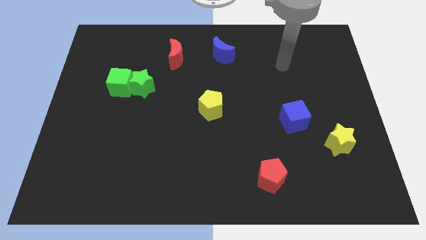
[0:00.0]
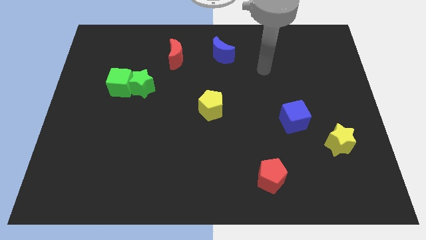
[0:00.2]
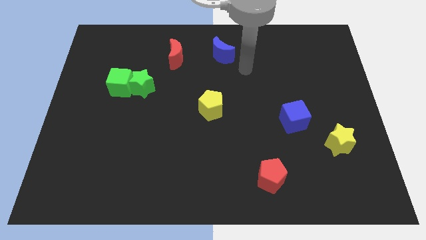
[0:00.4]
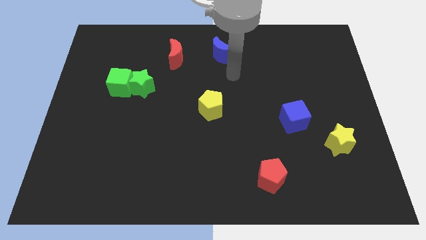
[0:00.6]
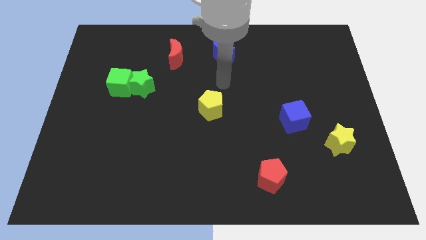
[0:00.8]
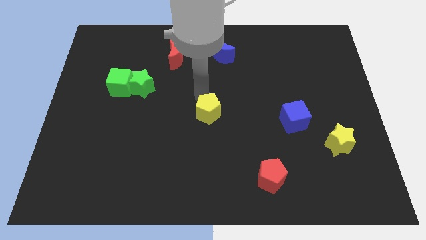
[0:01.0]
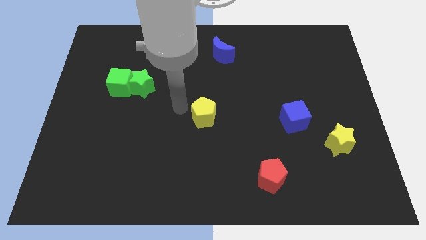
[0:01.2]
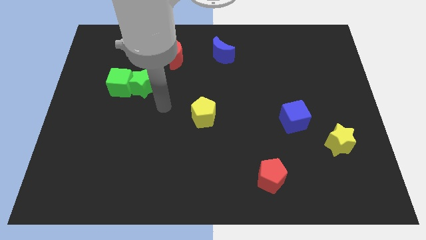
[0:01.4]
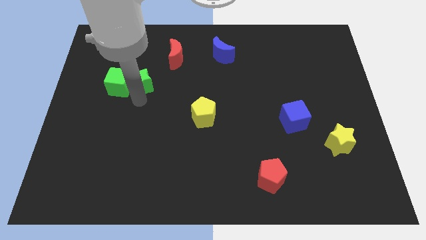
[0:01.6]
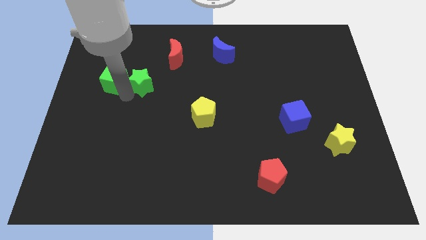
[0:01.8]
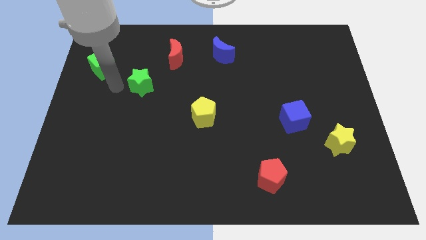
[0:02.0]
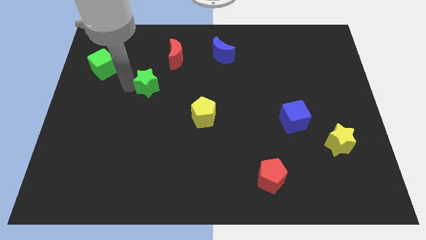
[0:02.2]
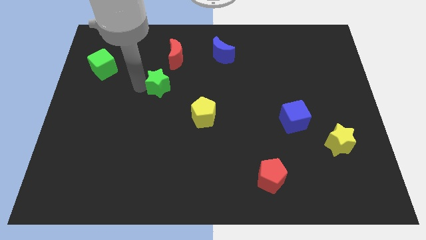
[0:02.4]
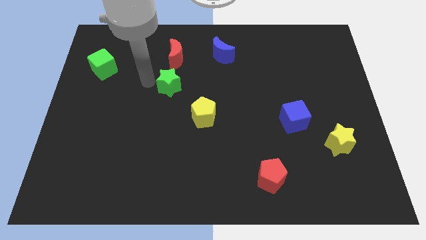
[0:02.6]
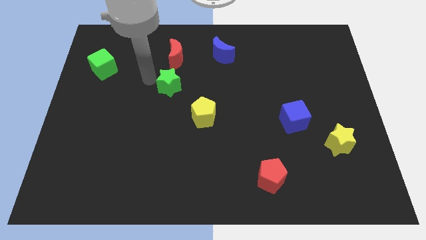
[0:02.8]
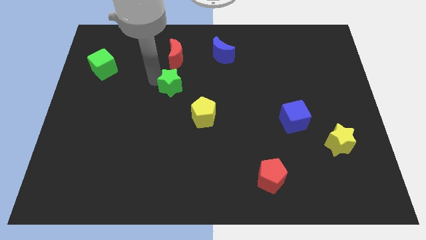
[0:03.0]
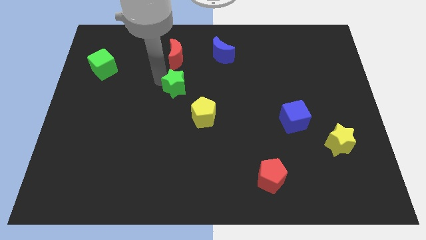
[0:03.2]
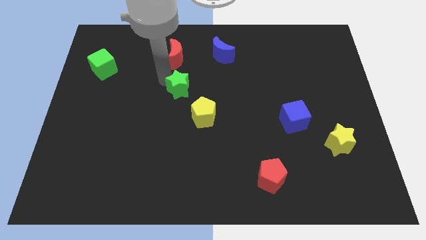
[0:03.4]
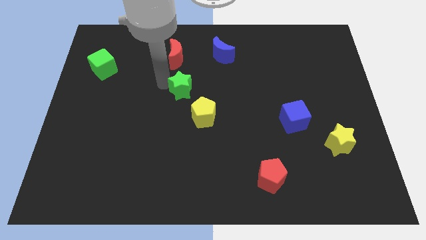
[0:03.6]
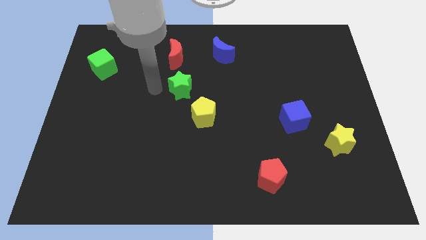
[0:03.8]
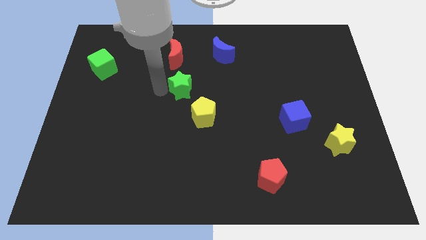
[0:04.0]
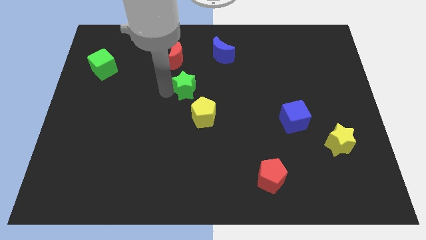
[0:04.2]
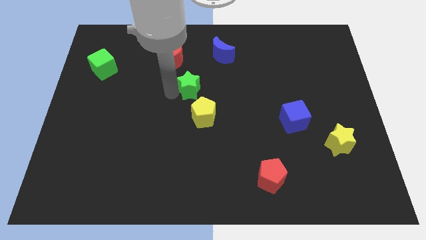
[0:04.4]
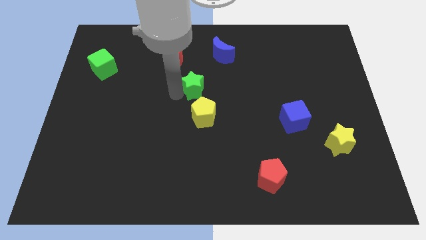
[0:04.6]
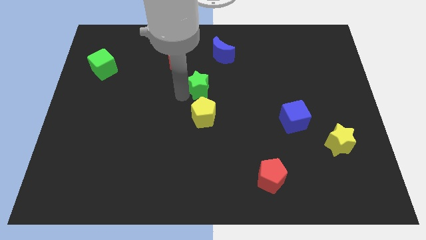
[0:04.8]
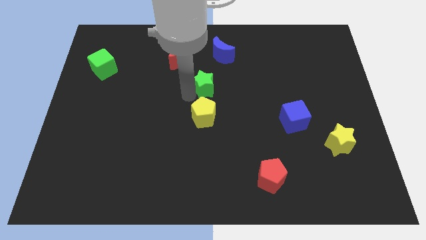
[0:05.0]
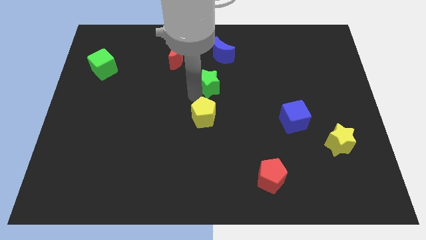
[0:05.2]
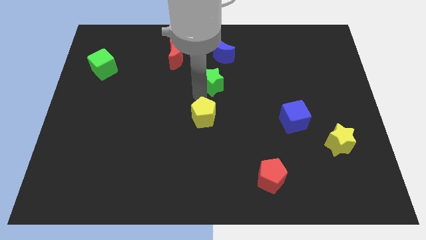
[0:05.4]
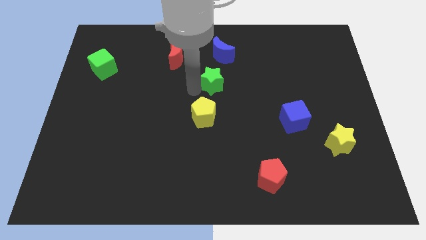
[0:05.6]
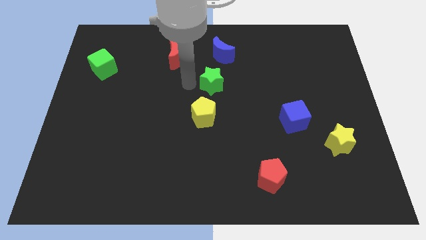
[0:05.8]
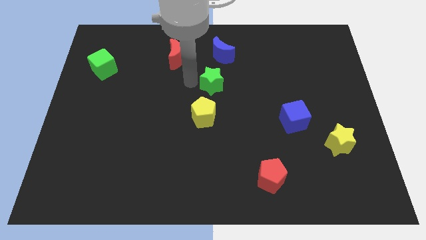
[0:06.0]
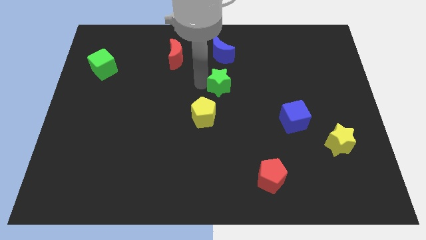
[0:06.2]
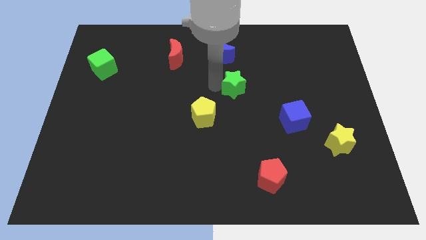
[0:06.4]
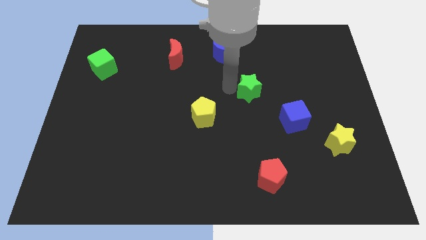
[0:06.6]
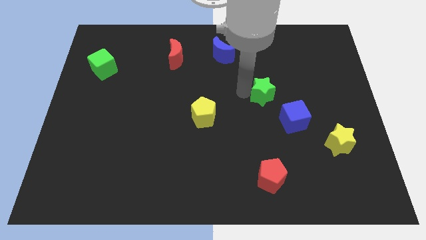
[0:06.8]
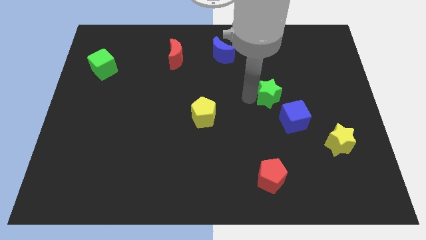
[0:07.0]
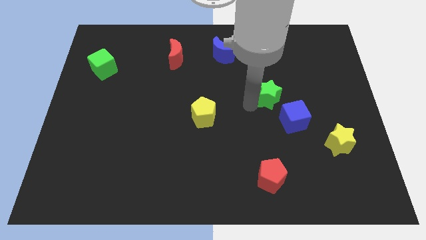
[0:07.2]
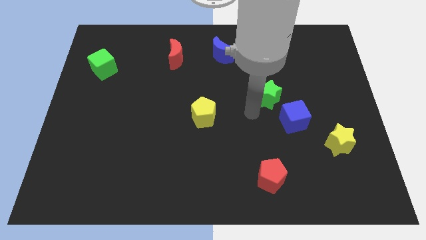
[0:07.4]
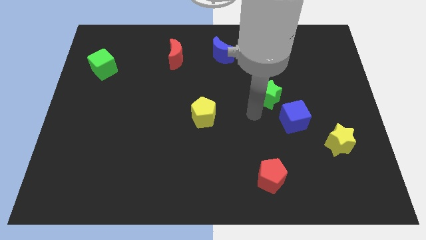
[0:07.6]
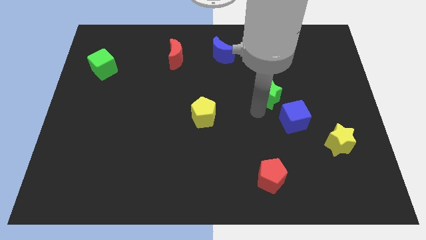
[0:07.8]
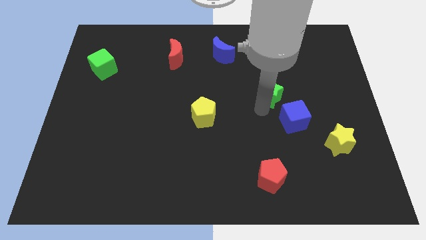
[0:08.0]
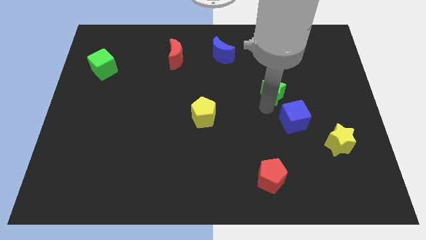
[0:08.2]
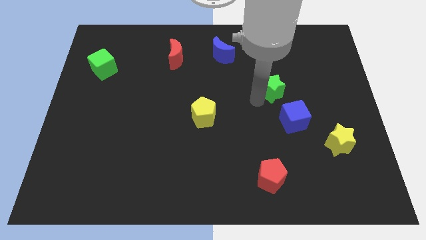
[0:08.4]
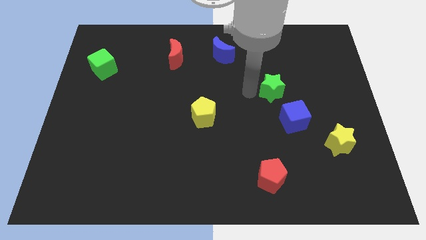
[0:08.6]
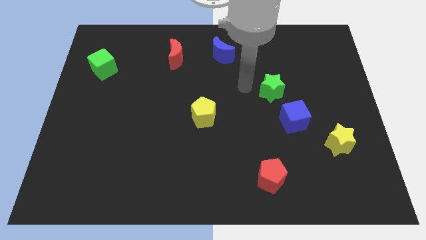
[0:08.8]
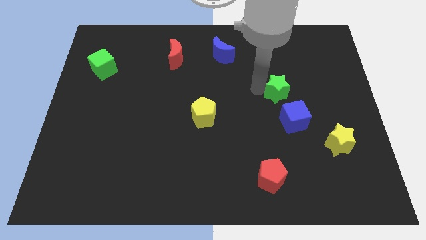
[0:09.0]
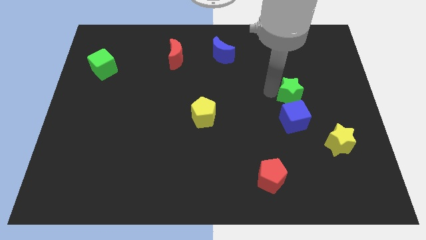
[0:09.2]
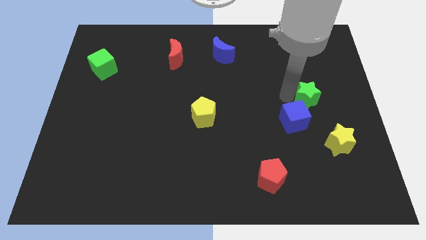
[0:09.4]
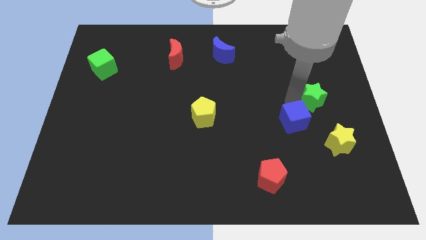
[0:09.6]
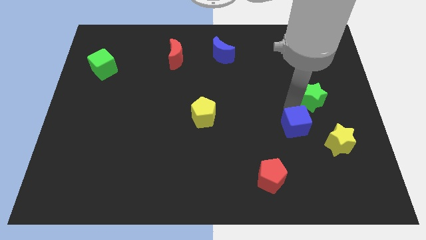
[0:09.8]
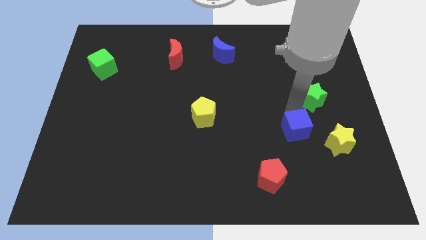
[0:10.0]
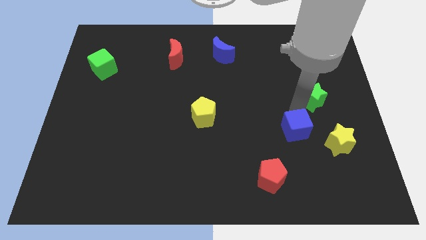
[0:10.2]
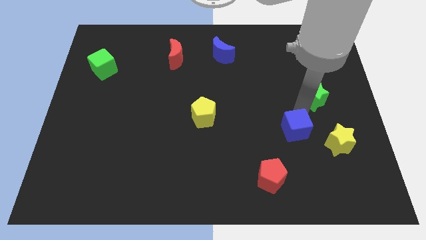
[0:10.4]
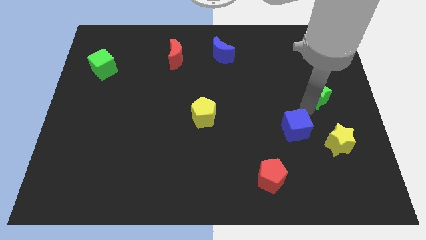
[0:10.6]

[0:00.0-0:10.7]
put the green star to the center right
